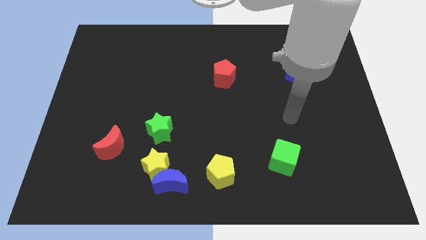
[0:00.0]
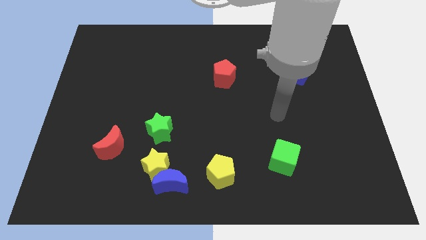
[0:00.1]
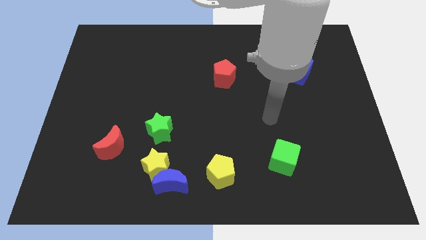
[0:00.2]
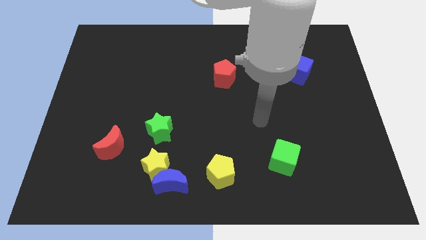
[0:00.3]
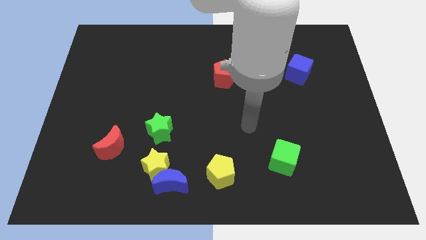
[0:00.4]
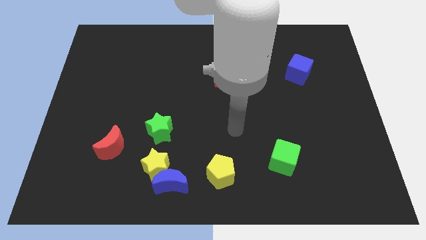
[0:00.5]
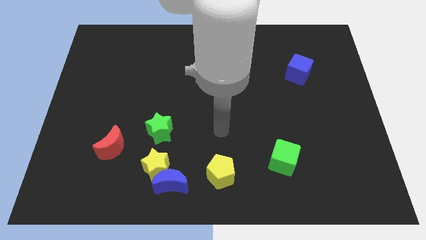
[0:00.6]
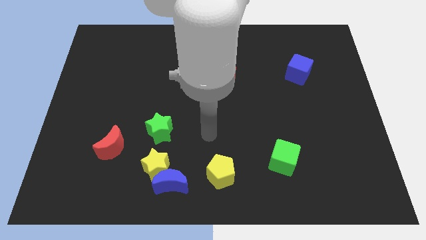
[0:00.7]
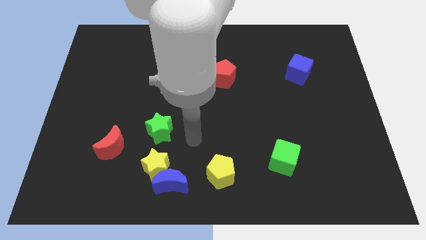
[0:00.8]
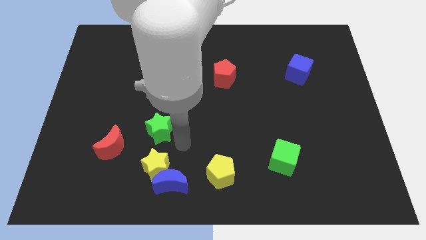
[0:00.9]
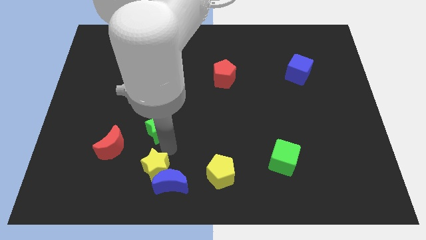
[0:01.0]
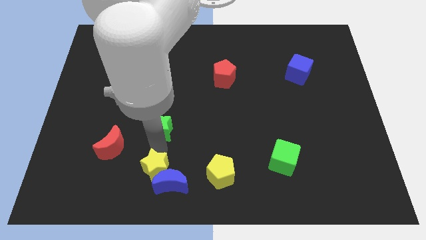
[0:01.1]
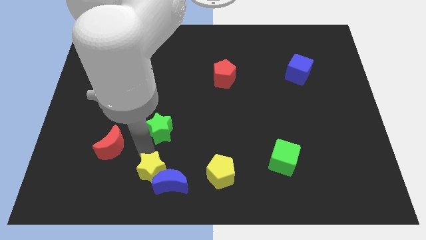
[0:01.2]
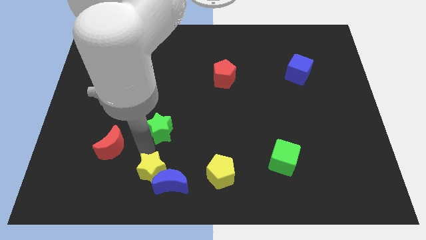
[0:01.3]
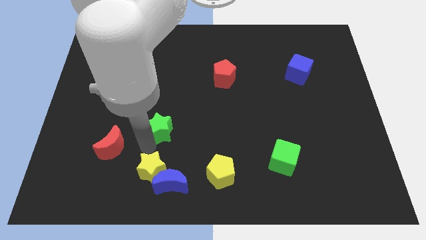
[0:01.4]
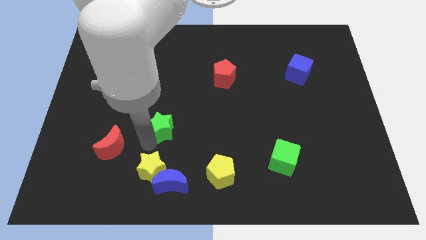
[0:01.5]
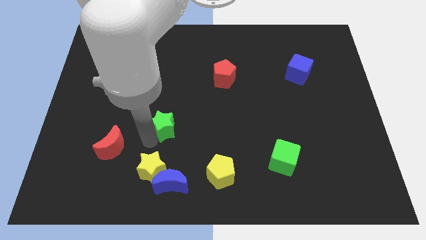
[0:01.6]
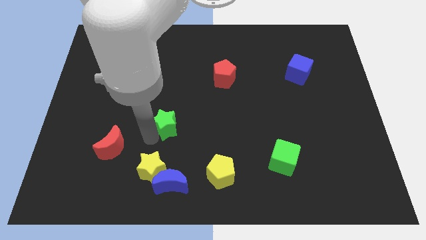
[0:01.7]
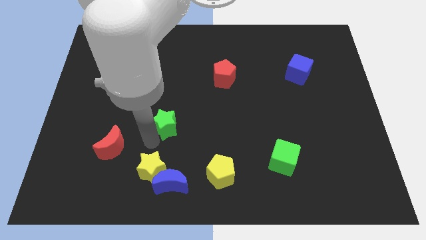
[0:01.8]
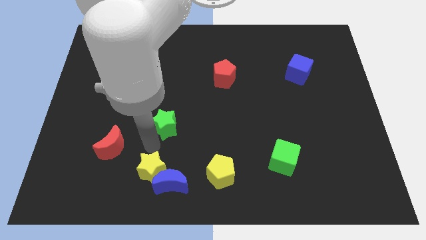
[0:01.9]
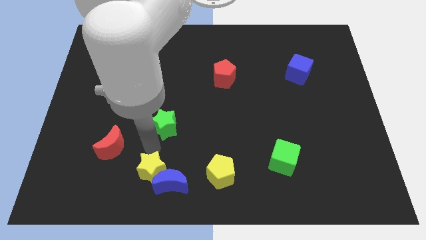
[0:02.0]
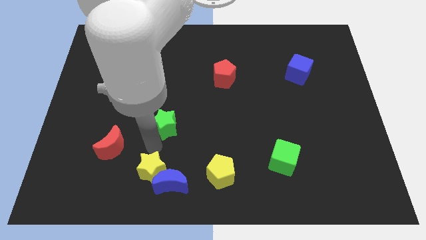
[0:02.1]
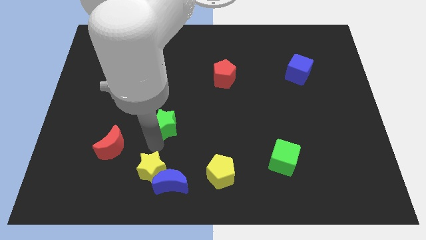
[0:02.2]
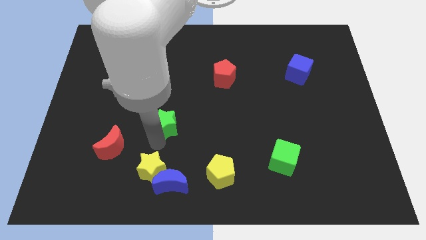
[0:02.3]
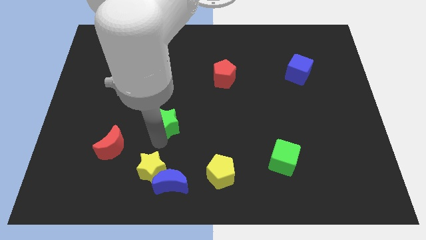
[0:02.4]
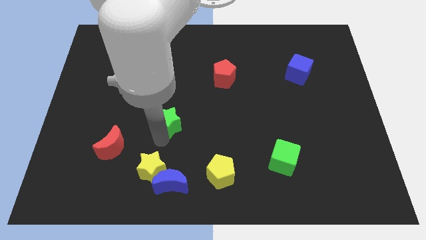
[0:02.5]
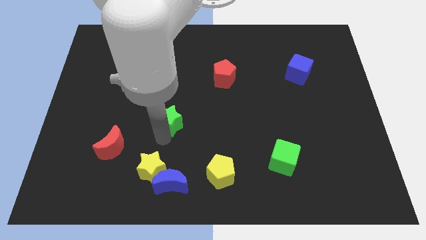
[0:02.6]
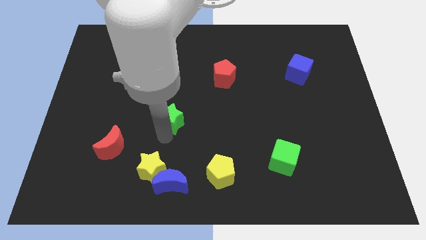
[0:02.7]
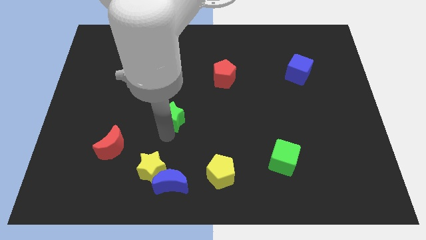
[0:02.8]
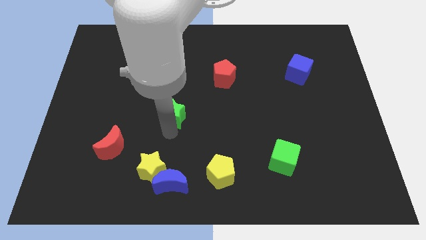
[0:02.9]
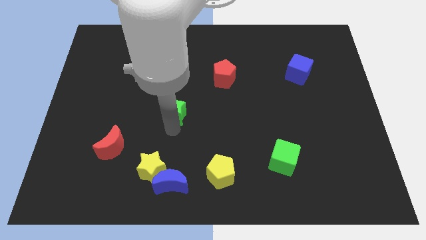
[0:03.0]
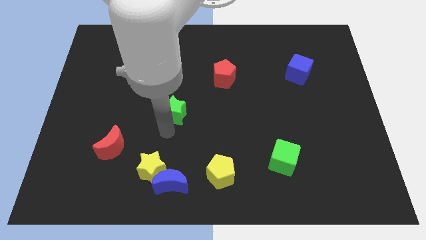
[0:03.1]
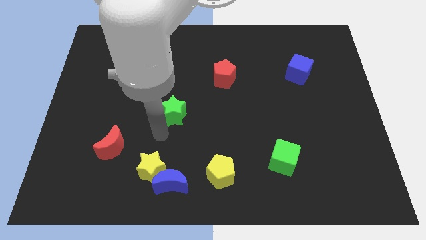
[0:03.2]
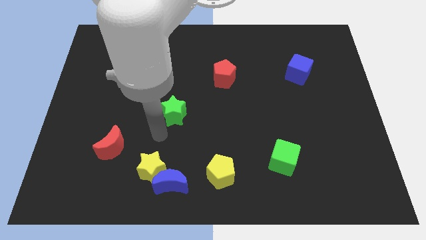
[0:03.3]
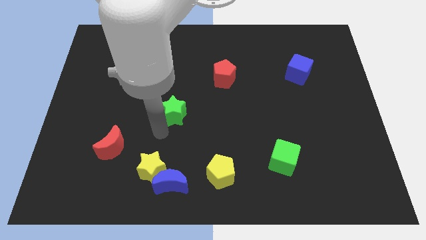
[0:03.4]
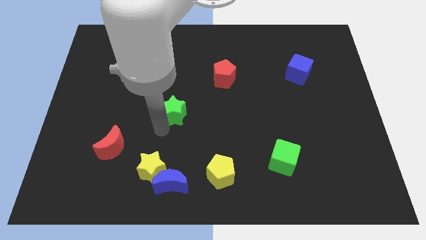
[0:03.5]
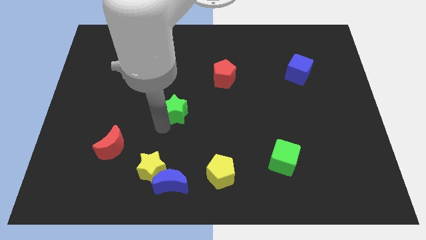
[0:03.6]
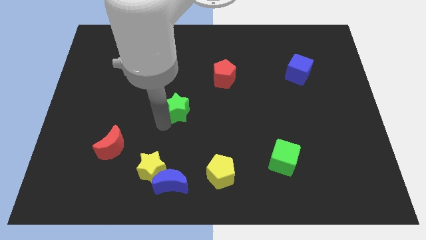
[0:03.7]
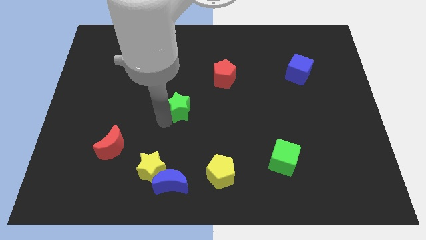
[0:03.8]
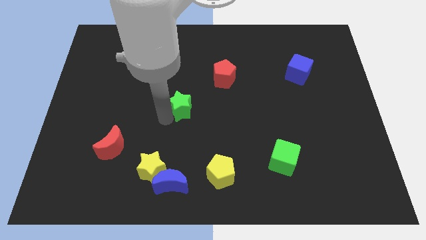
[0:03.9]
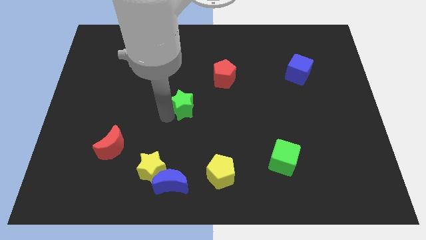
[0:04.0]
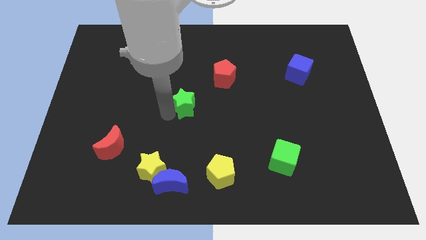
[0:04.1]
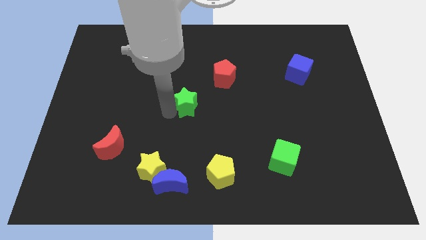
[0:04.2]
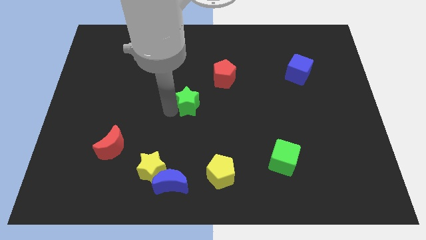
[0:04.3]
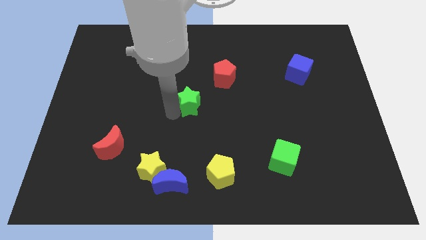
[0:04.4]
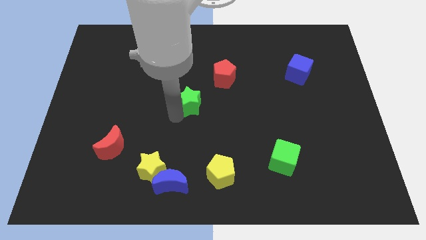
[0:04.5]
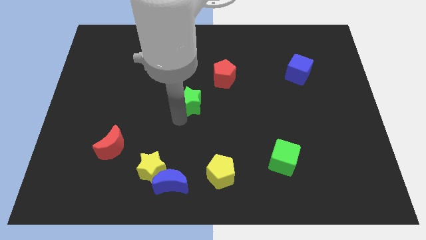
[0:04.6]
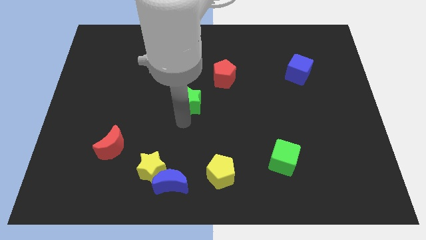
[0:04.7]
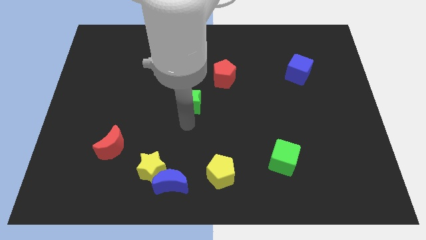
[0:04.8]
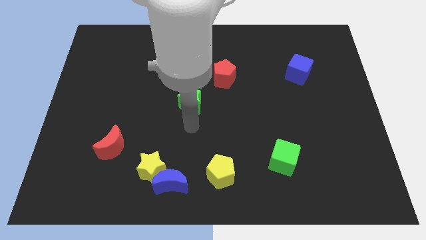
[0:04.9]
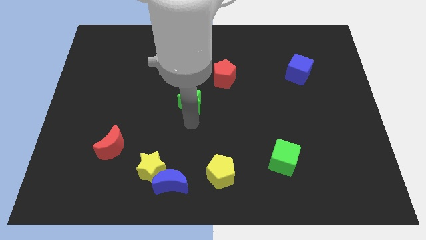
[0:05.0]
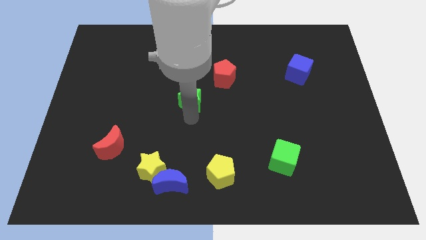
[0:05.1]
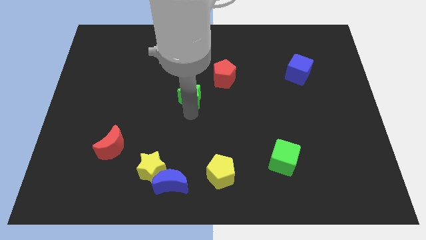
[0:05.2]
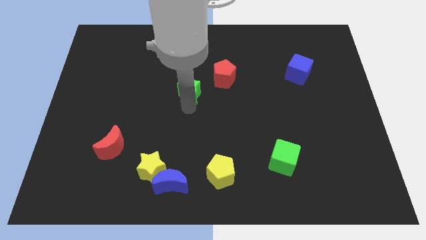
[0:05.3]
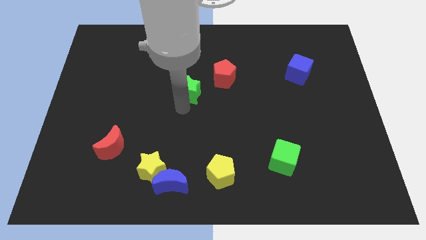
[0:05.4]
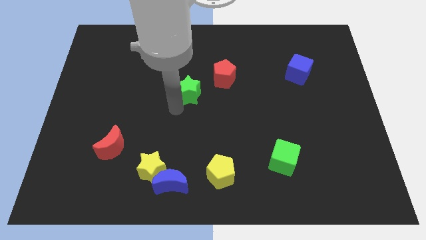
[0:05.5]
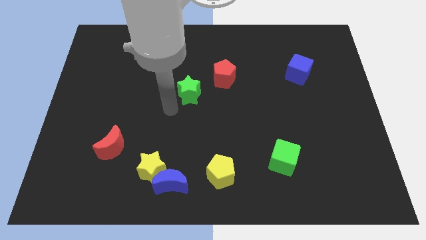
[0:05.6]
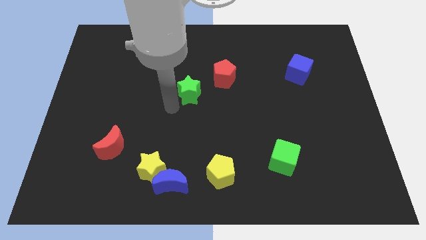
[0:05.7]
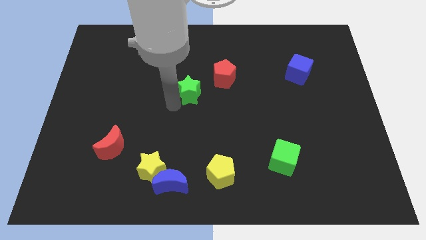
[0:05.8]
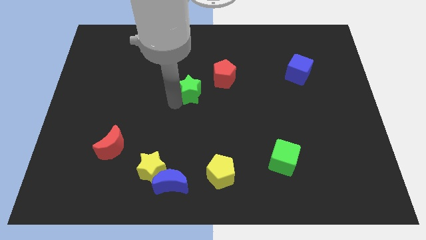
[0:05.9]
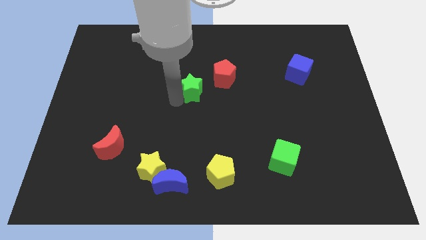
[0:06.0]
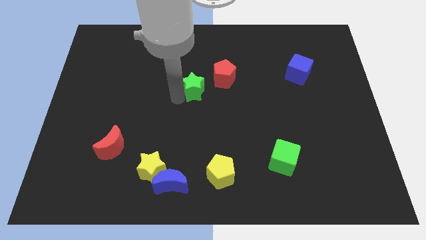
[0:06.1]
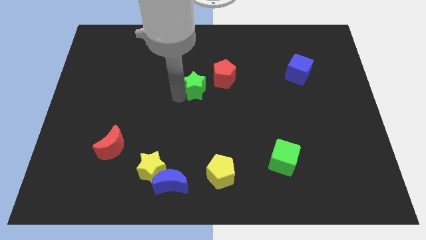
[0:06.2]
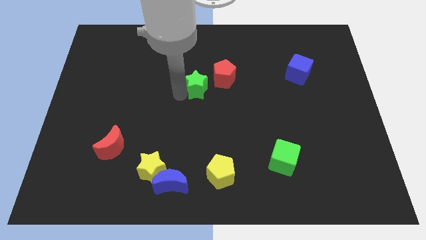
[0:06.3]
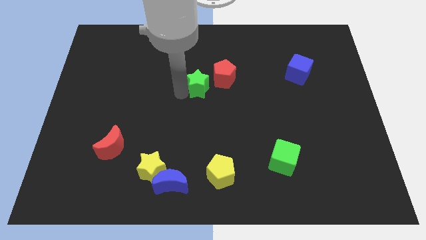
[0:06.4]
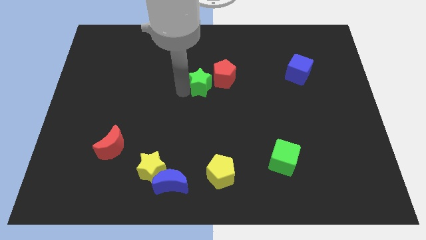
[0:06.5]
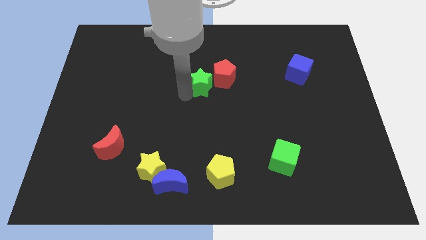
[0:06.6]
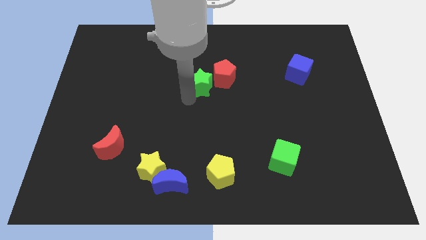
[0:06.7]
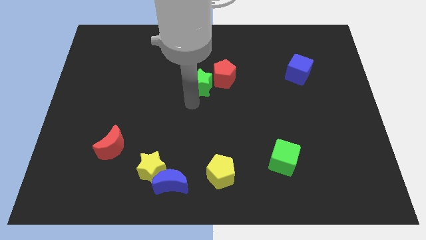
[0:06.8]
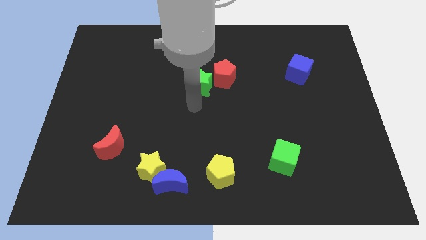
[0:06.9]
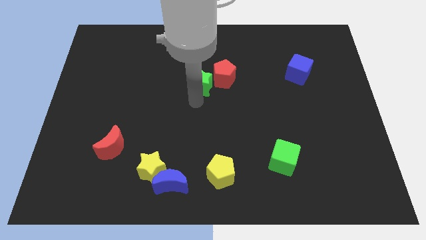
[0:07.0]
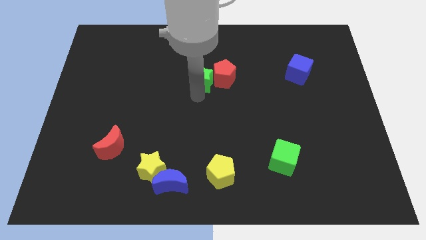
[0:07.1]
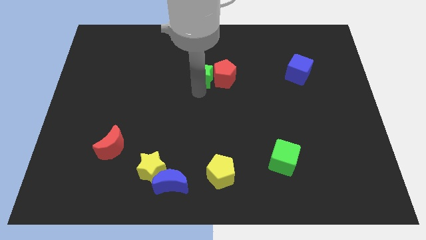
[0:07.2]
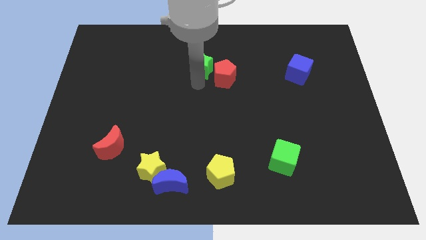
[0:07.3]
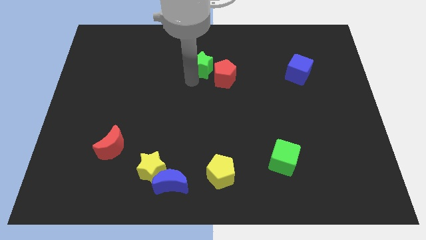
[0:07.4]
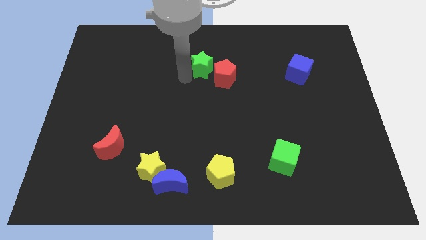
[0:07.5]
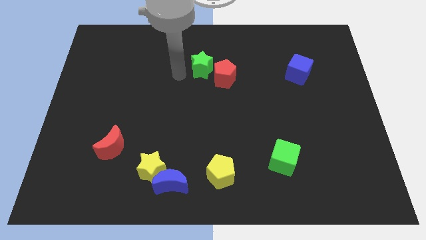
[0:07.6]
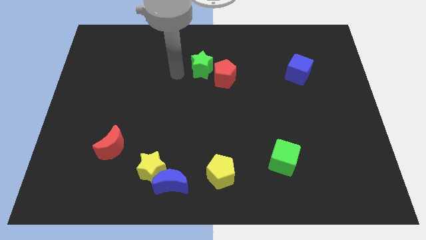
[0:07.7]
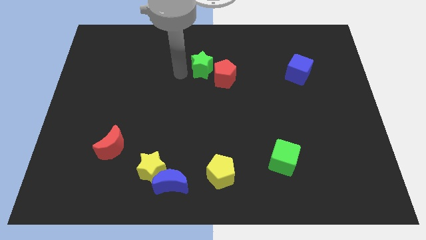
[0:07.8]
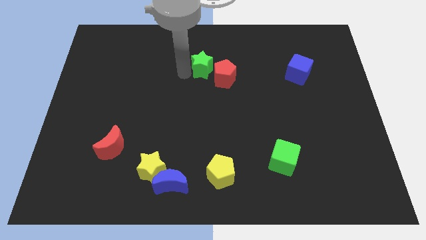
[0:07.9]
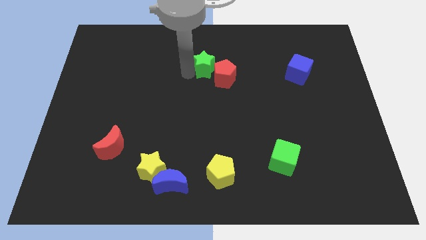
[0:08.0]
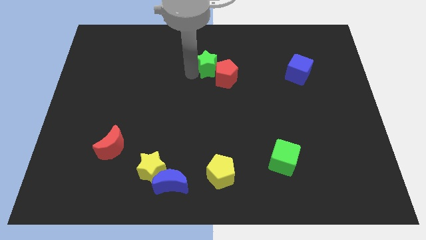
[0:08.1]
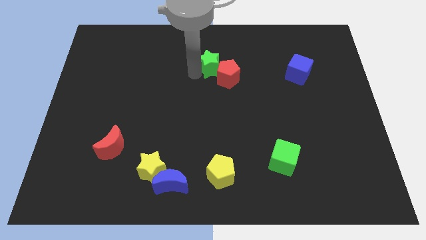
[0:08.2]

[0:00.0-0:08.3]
push the green star up and right

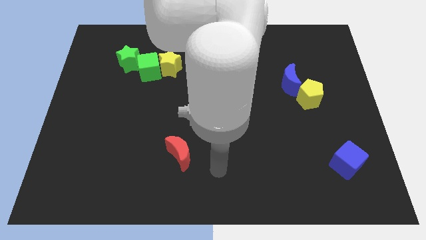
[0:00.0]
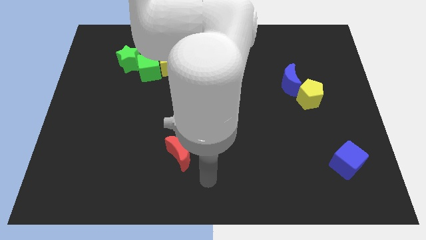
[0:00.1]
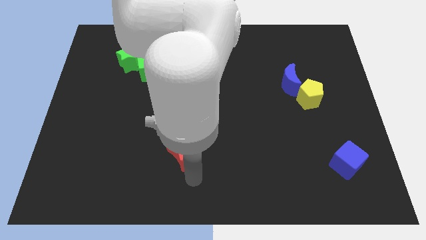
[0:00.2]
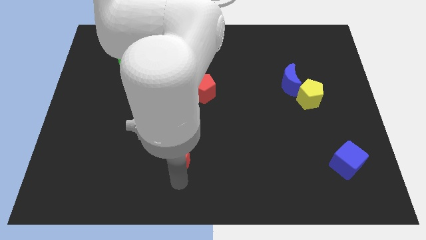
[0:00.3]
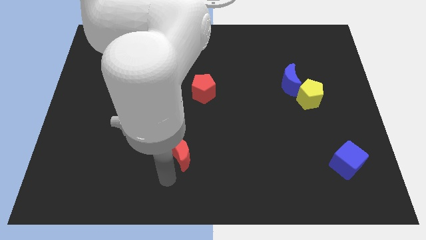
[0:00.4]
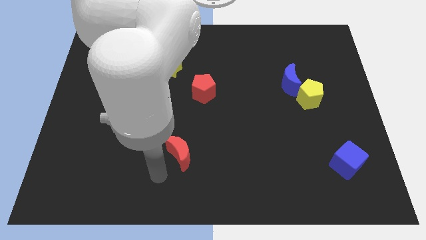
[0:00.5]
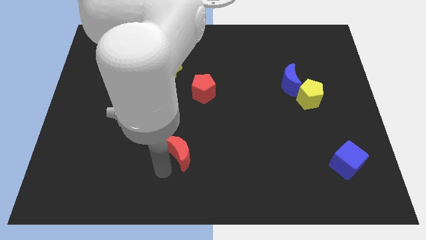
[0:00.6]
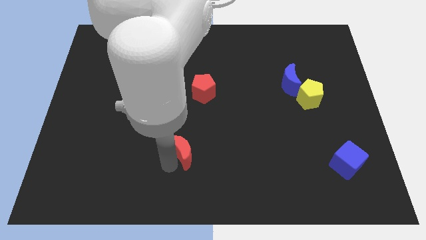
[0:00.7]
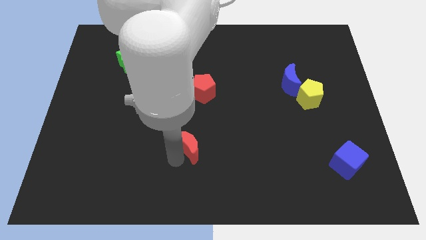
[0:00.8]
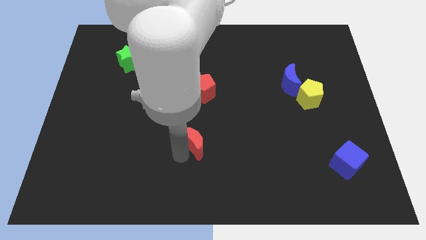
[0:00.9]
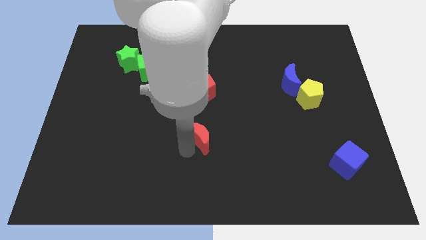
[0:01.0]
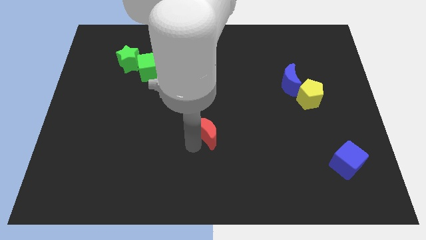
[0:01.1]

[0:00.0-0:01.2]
slide the red moon a little bit diagonally up and right
